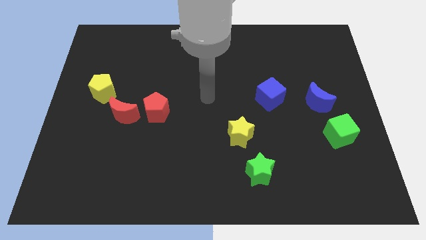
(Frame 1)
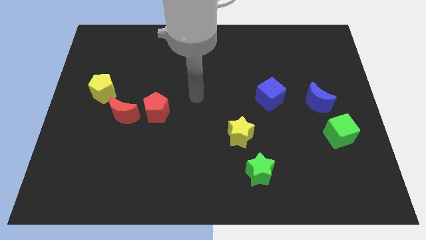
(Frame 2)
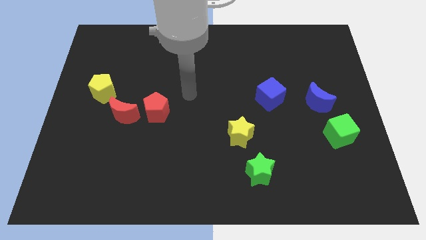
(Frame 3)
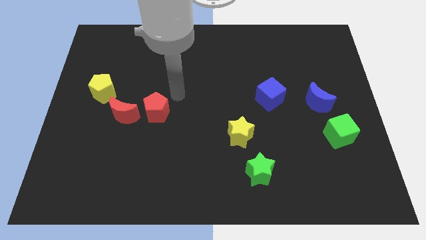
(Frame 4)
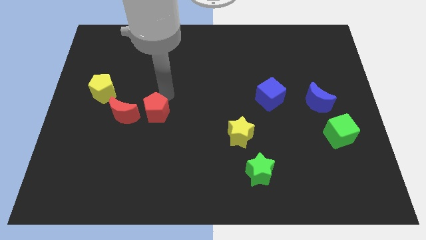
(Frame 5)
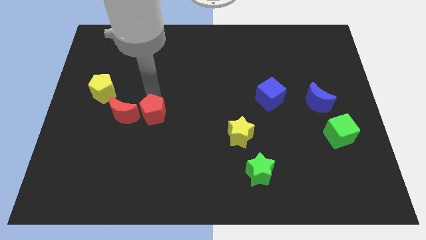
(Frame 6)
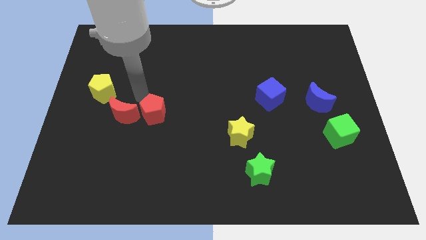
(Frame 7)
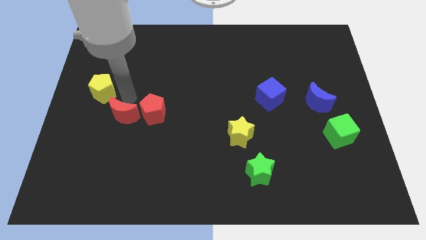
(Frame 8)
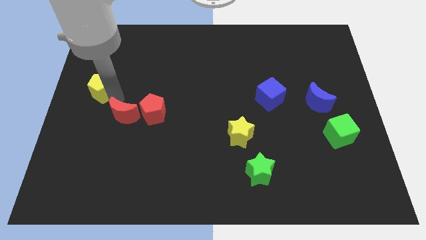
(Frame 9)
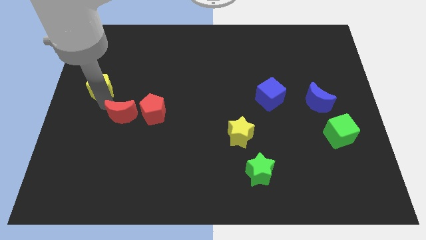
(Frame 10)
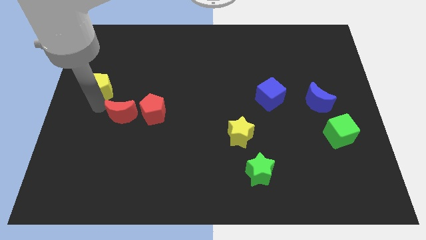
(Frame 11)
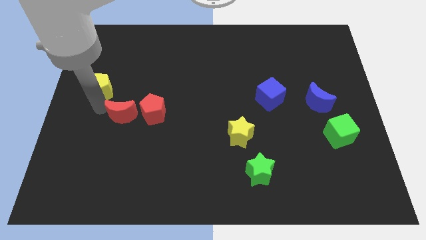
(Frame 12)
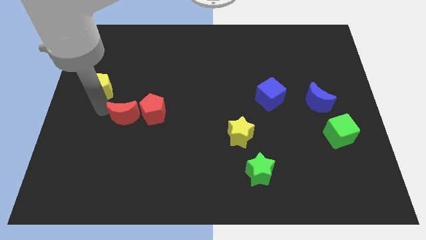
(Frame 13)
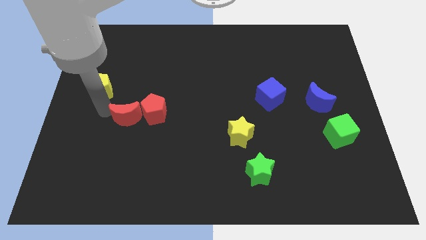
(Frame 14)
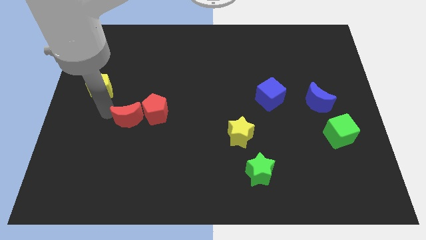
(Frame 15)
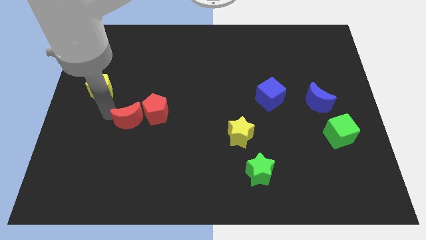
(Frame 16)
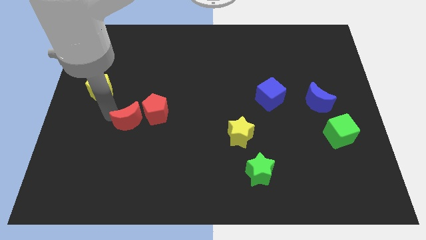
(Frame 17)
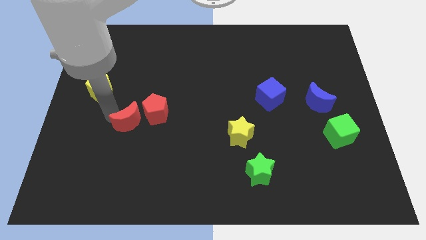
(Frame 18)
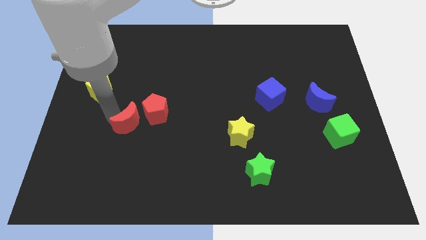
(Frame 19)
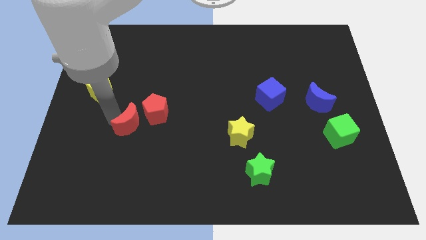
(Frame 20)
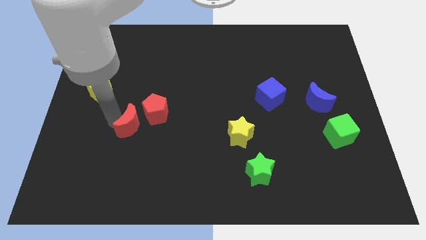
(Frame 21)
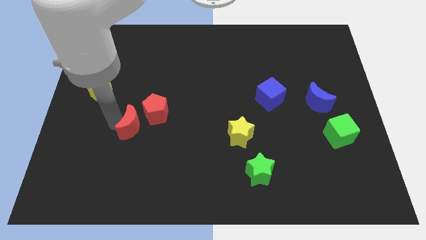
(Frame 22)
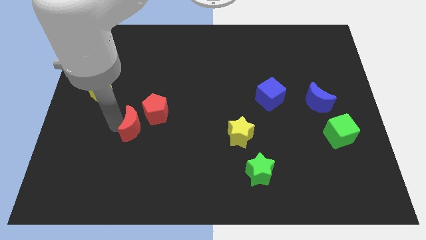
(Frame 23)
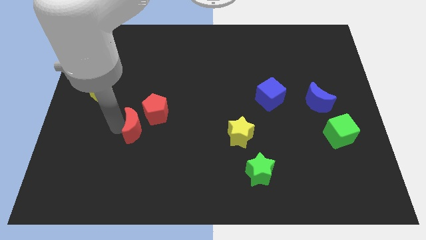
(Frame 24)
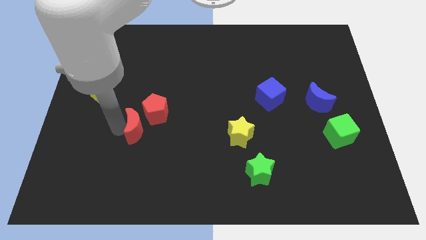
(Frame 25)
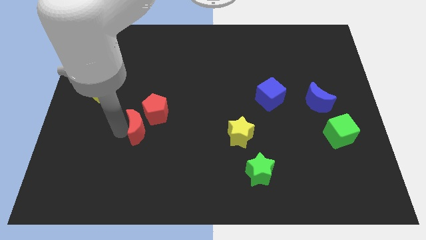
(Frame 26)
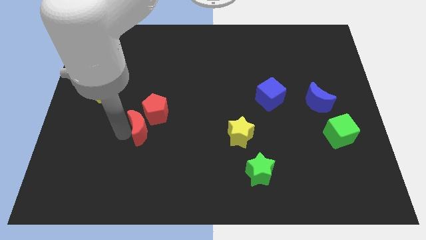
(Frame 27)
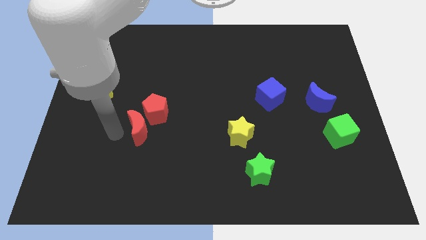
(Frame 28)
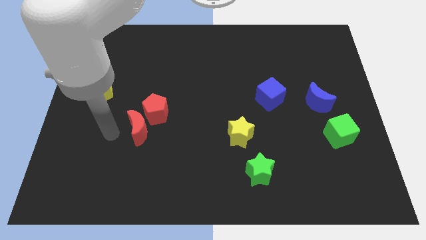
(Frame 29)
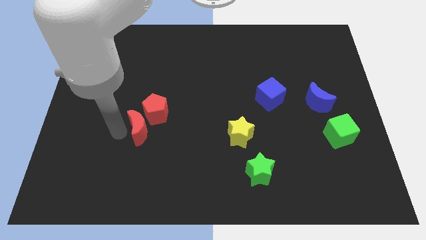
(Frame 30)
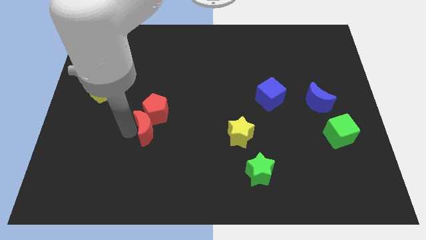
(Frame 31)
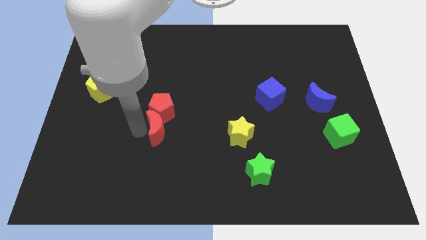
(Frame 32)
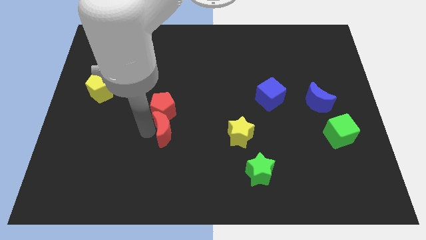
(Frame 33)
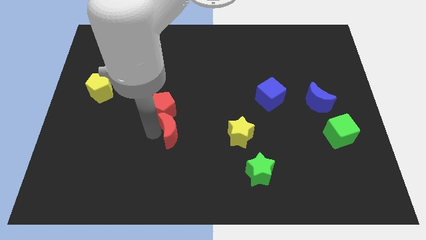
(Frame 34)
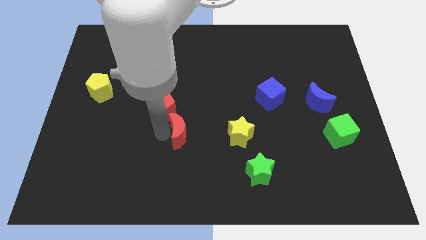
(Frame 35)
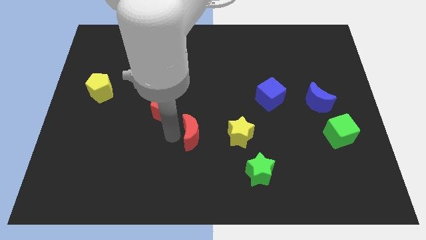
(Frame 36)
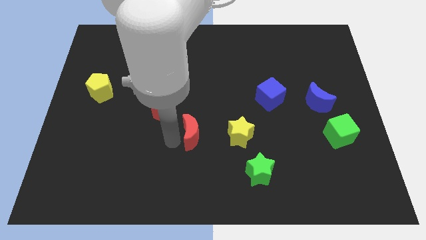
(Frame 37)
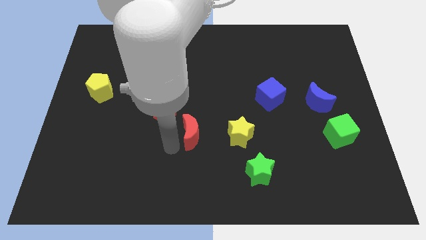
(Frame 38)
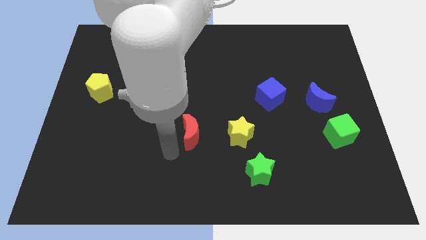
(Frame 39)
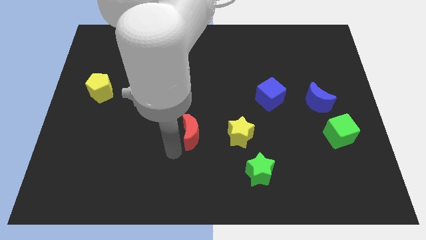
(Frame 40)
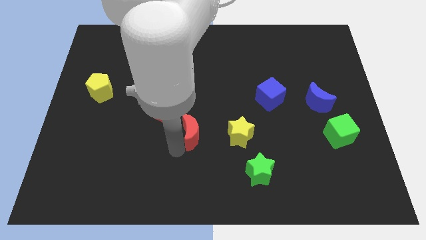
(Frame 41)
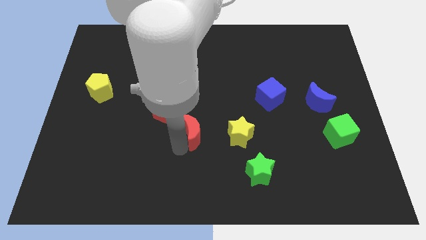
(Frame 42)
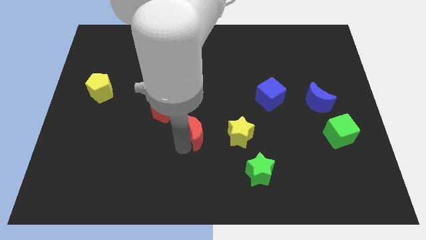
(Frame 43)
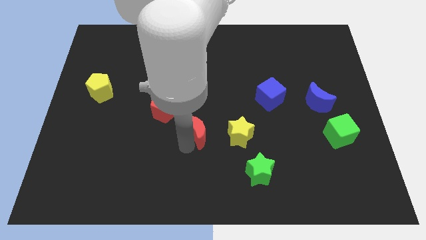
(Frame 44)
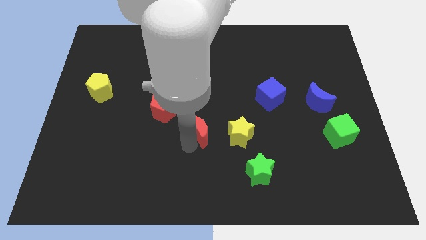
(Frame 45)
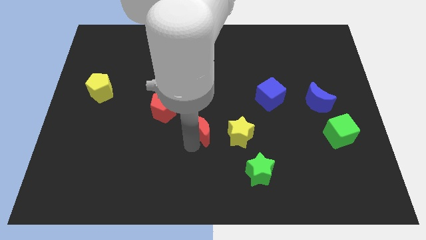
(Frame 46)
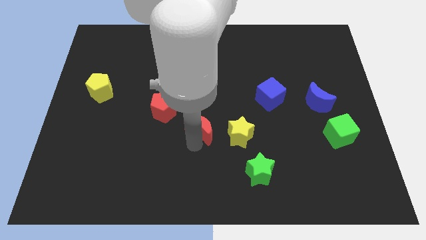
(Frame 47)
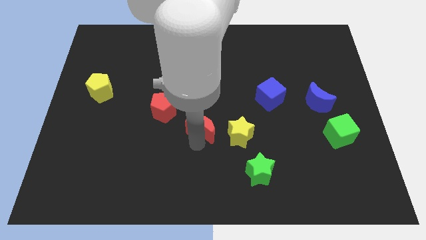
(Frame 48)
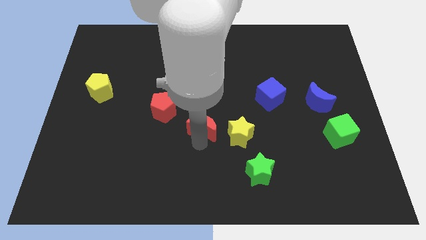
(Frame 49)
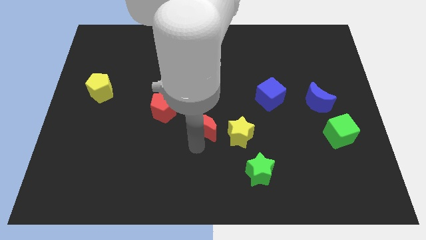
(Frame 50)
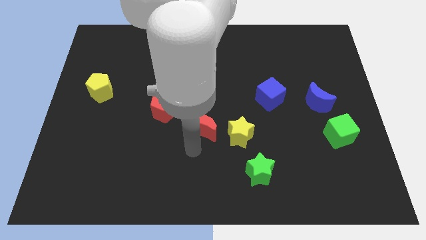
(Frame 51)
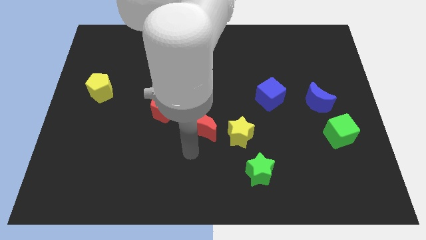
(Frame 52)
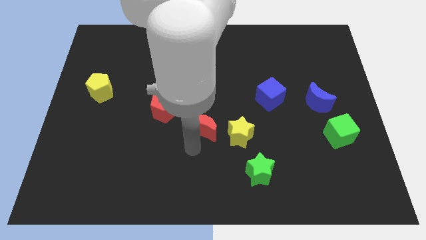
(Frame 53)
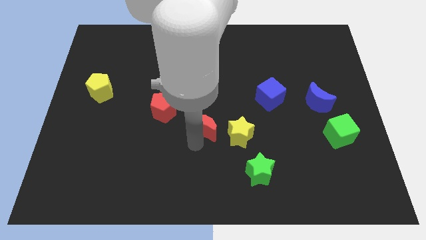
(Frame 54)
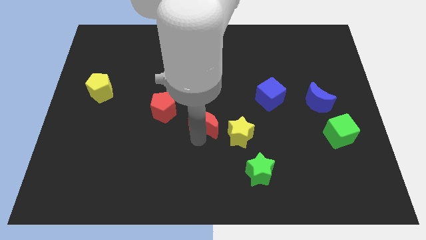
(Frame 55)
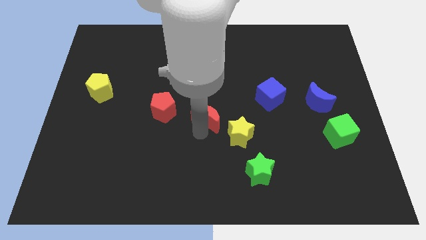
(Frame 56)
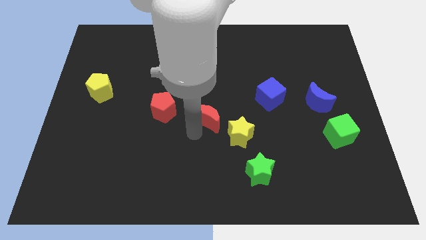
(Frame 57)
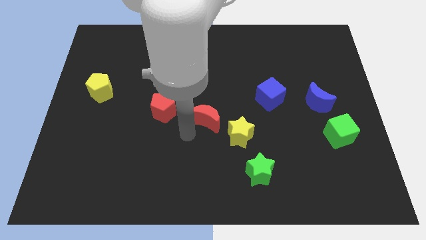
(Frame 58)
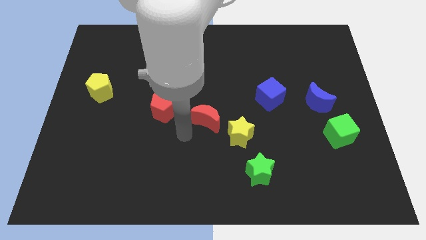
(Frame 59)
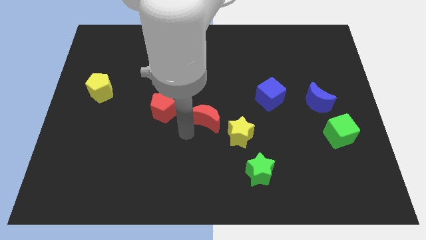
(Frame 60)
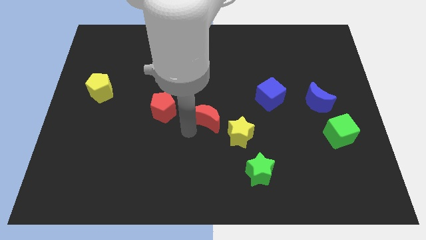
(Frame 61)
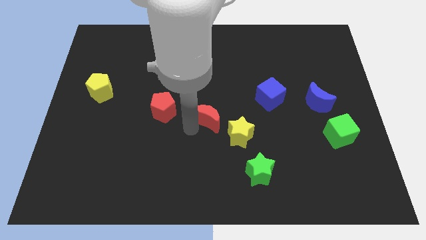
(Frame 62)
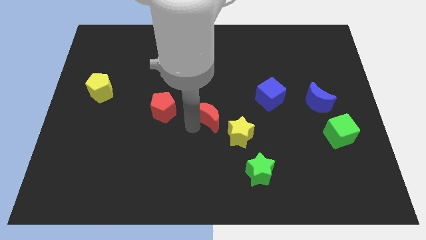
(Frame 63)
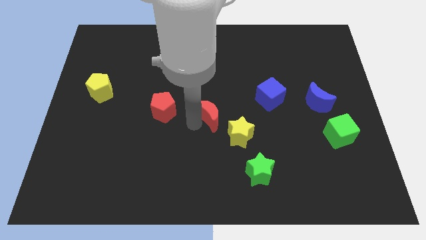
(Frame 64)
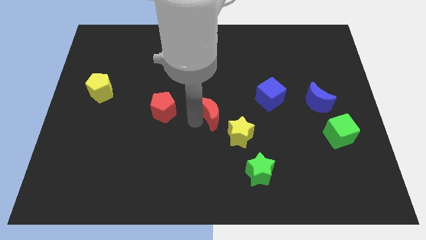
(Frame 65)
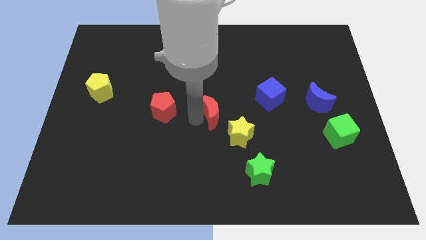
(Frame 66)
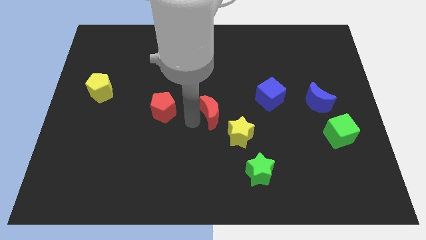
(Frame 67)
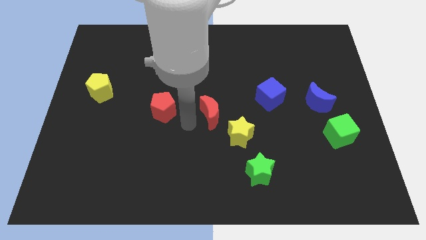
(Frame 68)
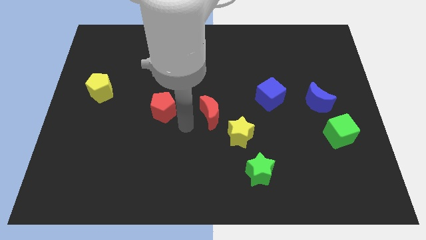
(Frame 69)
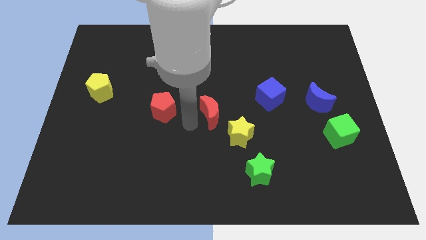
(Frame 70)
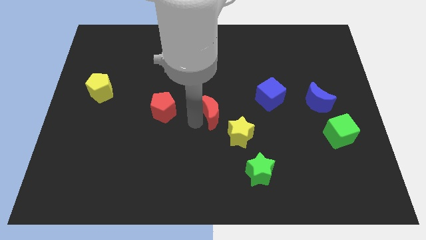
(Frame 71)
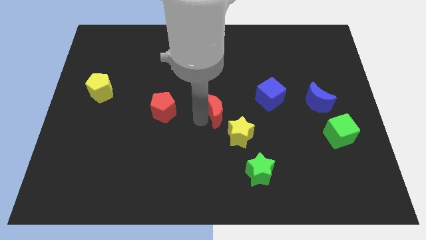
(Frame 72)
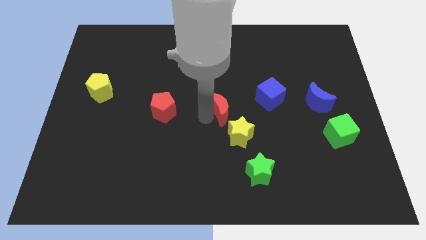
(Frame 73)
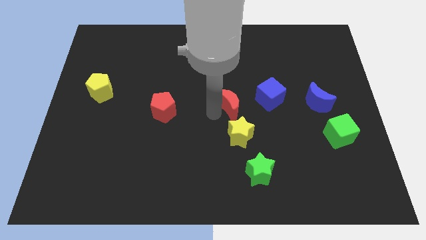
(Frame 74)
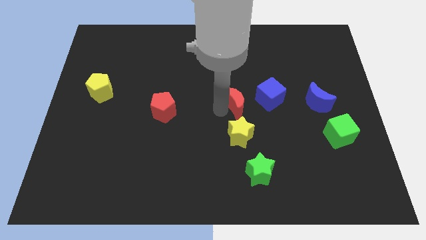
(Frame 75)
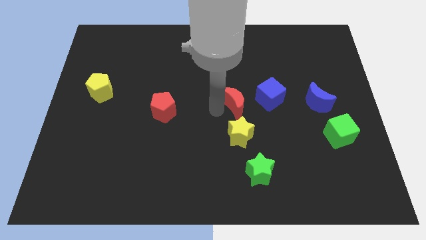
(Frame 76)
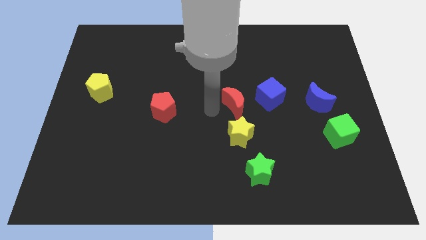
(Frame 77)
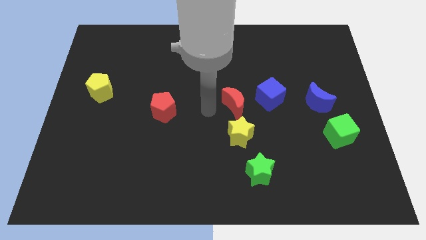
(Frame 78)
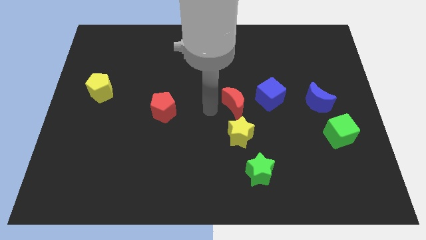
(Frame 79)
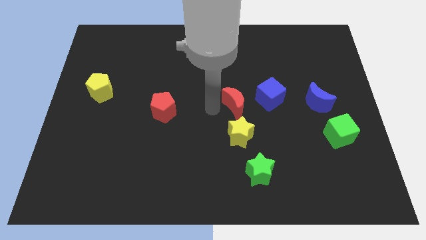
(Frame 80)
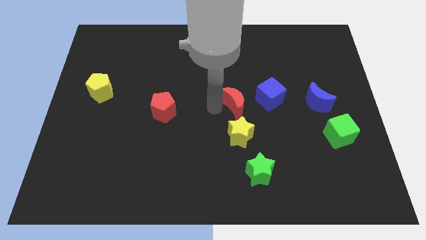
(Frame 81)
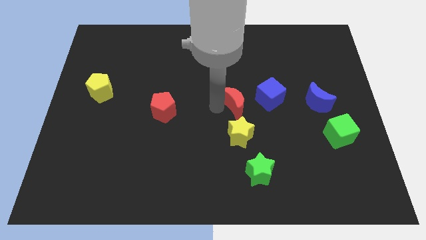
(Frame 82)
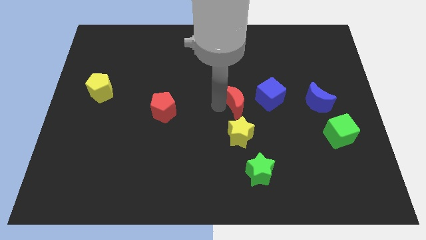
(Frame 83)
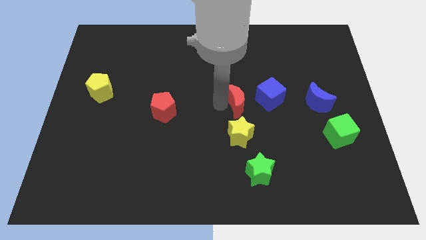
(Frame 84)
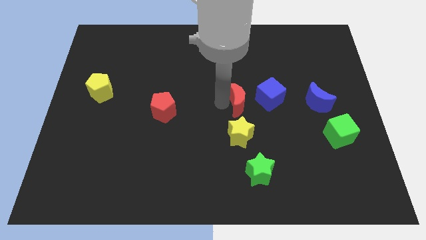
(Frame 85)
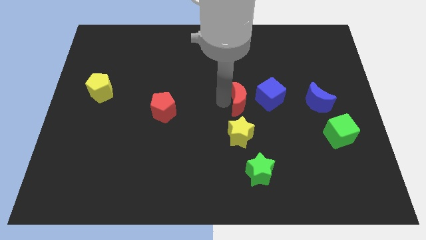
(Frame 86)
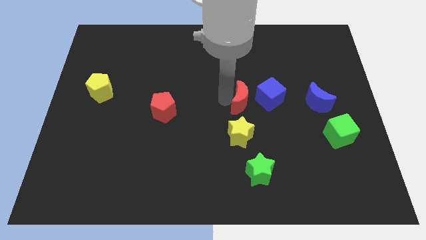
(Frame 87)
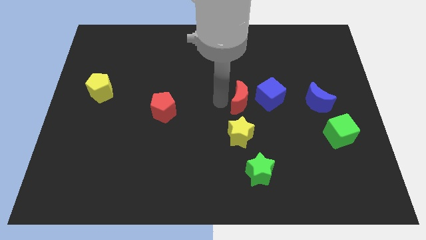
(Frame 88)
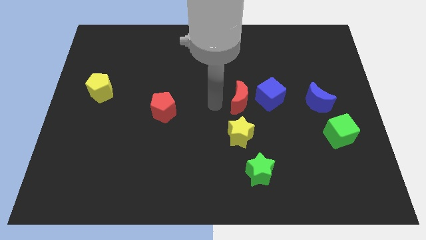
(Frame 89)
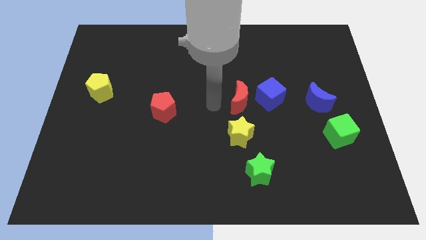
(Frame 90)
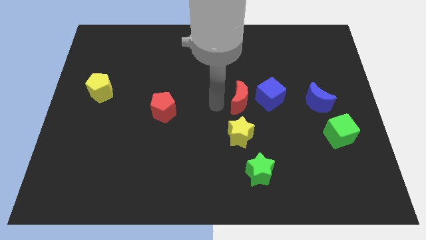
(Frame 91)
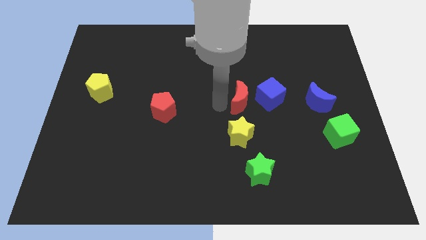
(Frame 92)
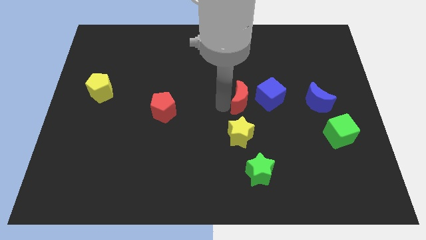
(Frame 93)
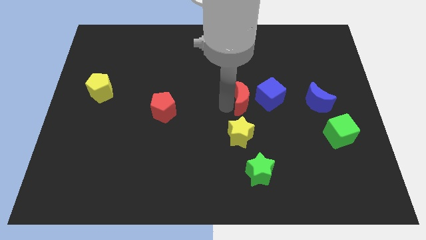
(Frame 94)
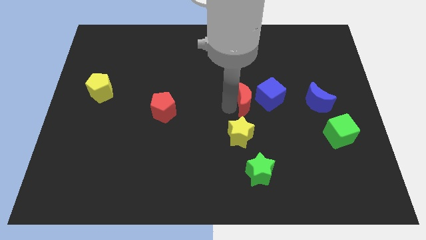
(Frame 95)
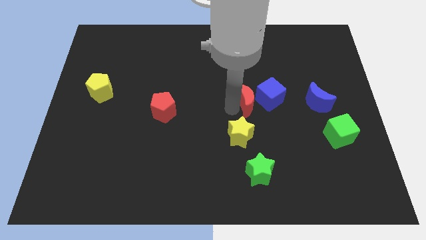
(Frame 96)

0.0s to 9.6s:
push the red moon next to the blue cube
